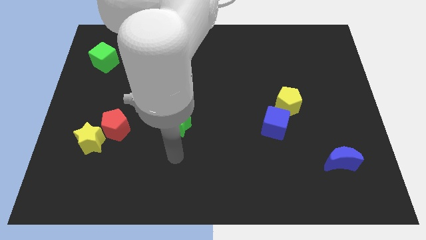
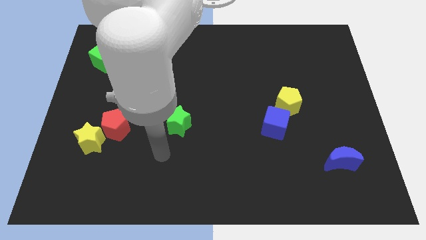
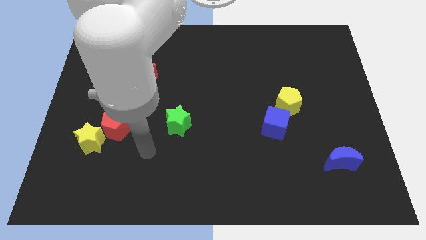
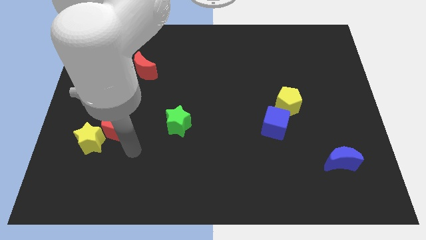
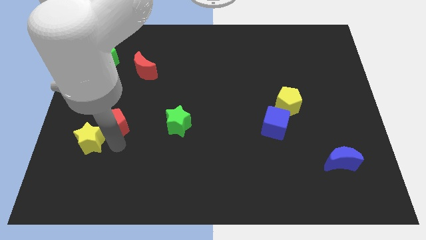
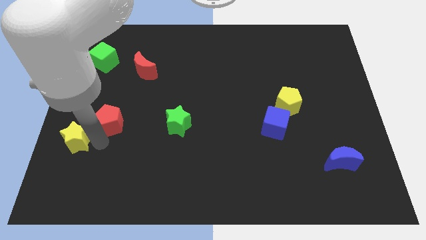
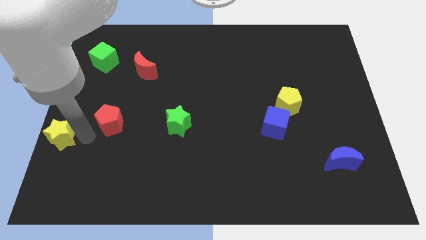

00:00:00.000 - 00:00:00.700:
move the red pentagon away from the yellow star

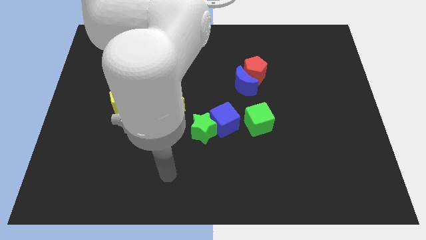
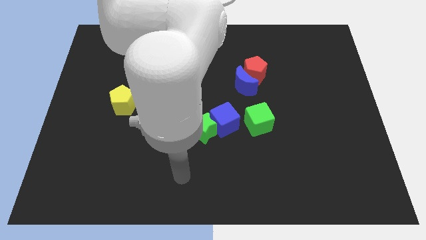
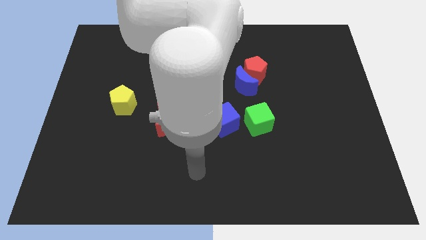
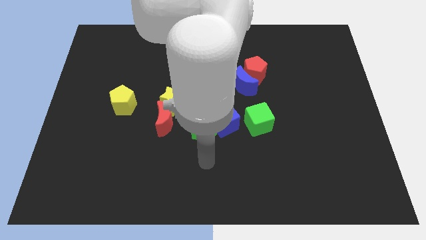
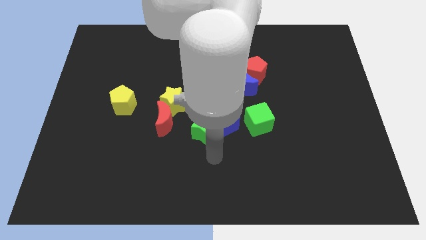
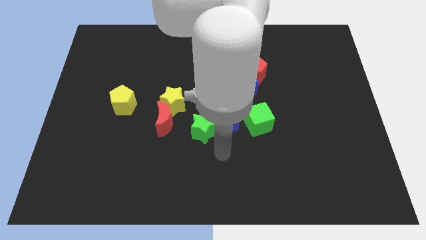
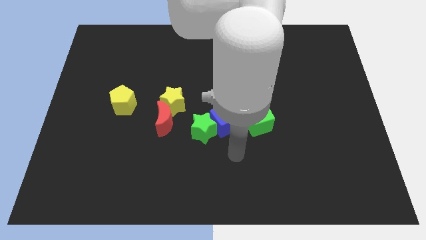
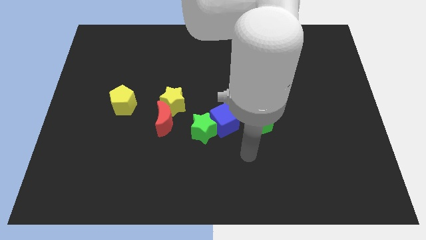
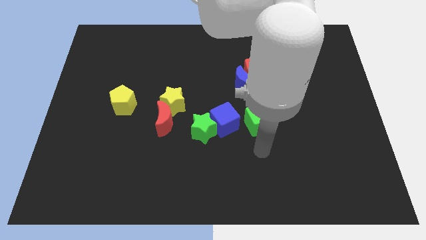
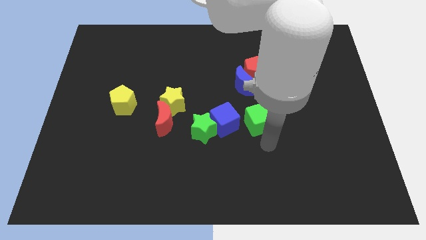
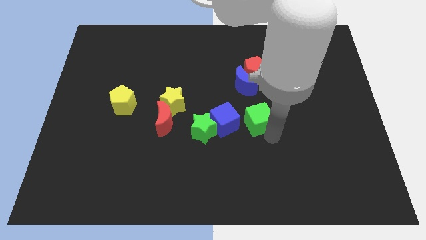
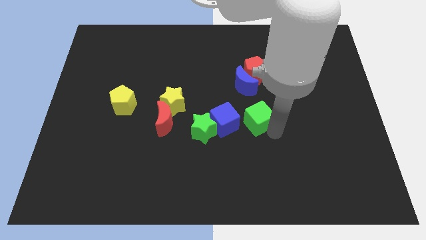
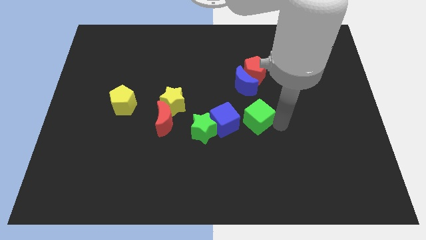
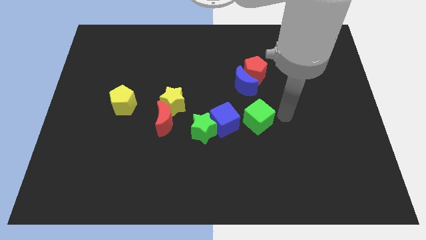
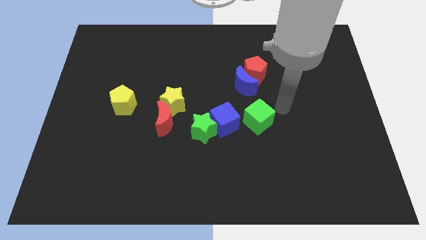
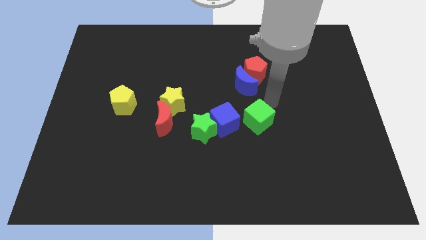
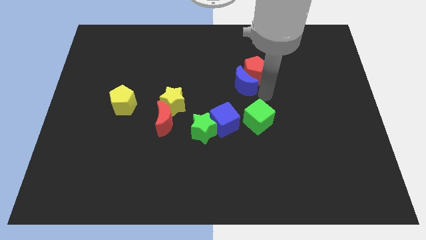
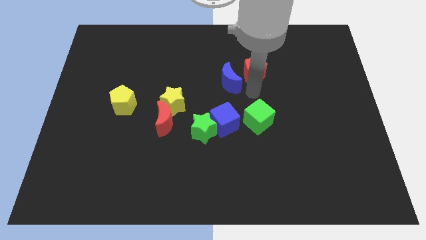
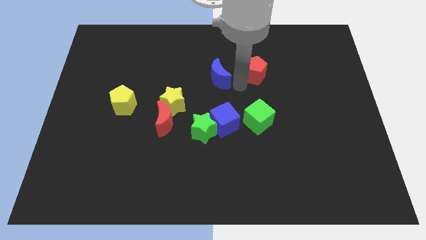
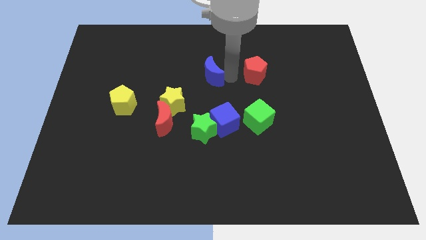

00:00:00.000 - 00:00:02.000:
separate the red pentagon from the blue moon

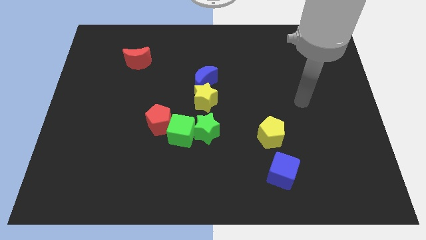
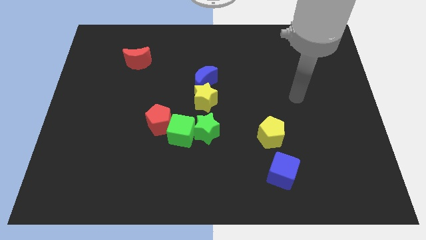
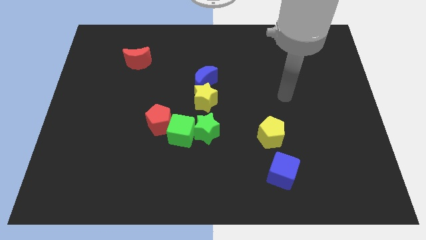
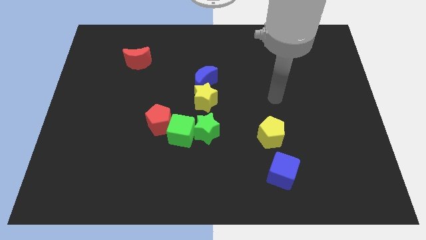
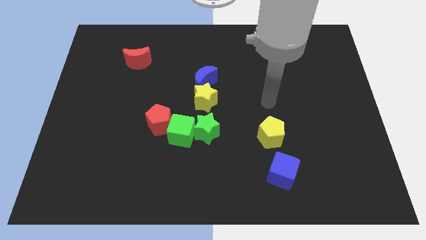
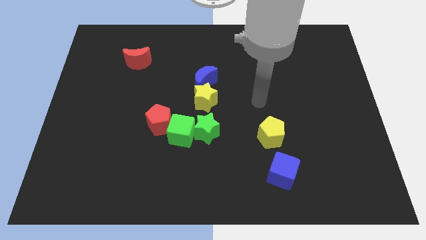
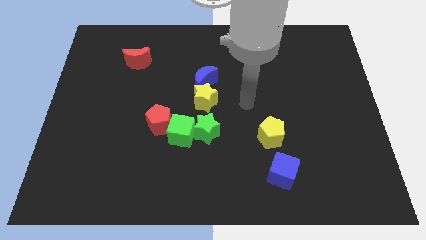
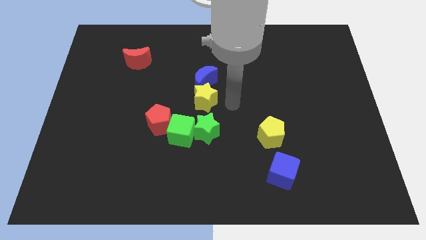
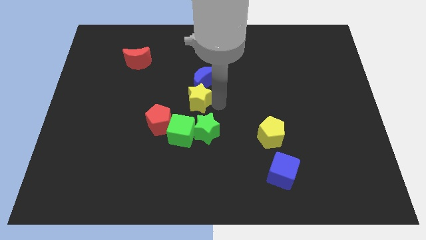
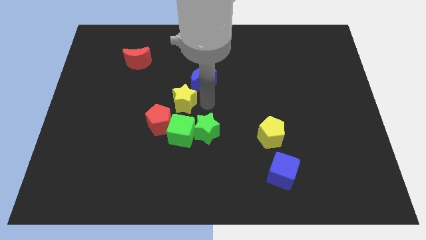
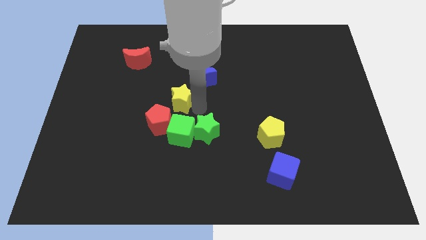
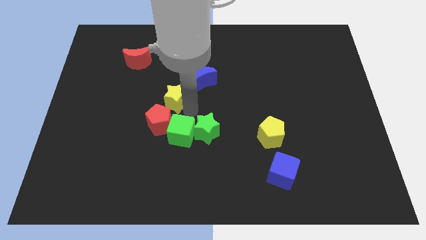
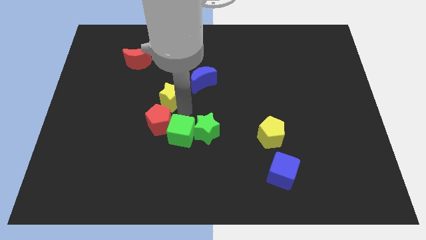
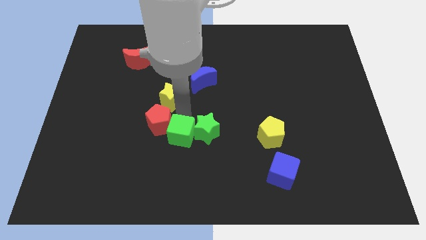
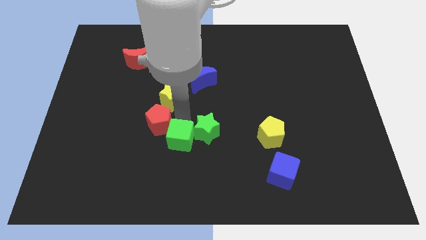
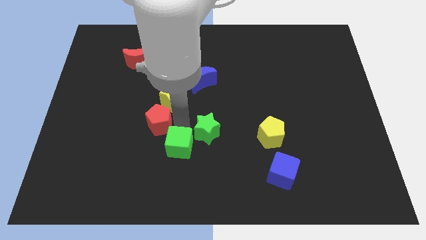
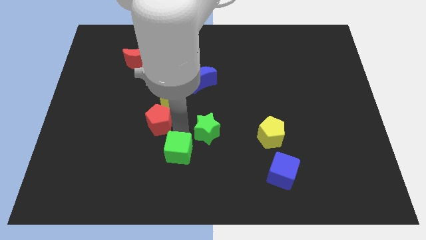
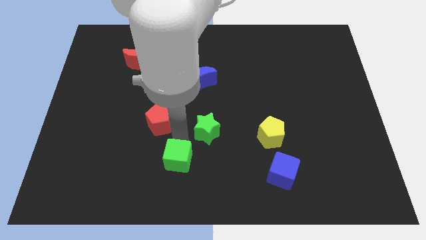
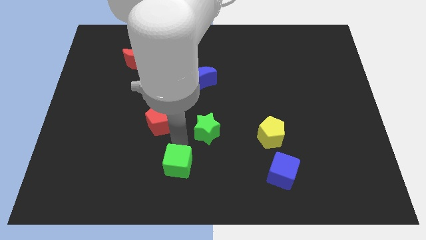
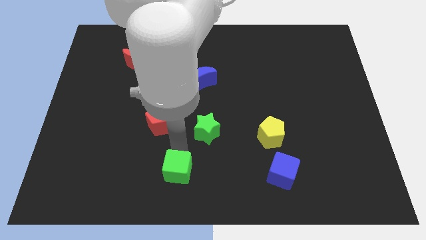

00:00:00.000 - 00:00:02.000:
pull the green cube apart from the green star and red pentagon

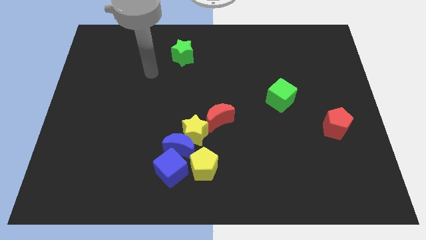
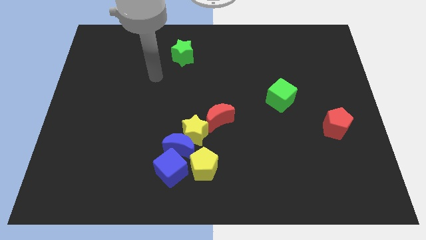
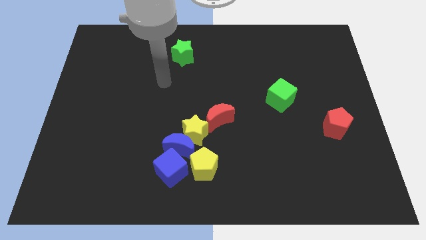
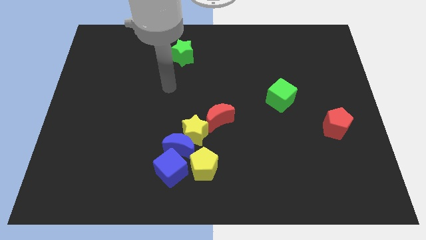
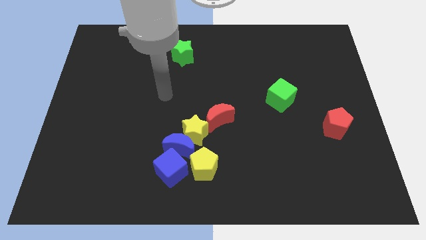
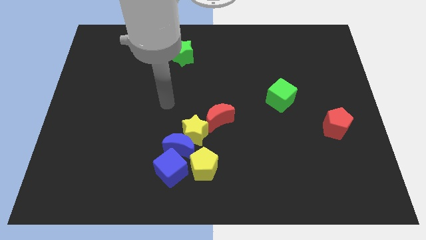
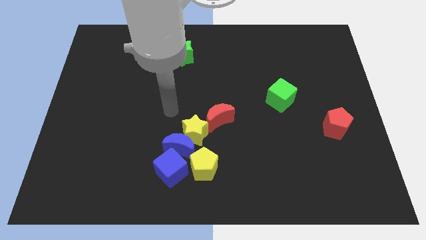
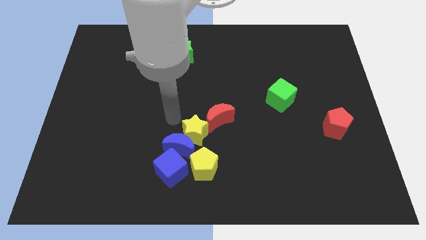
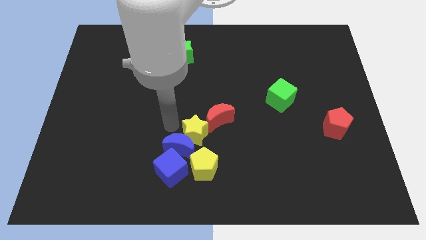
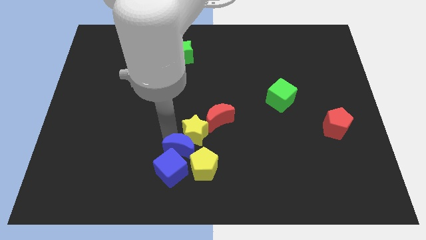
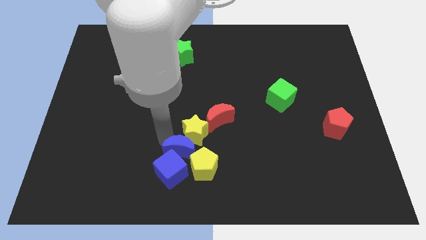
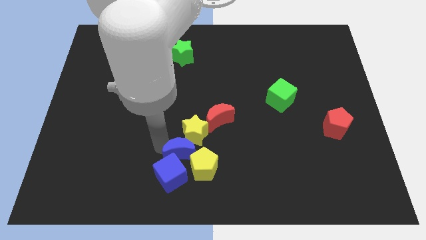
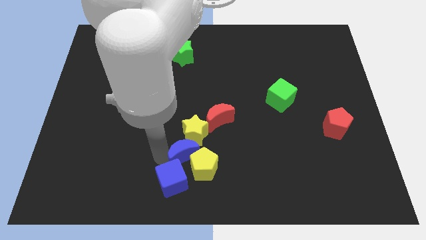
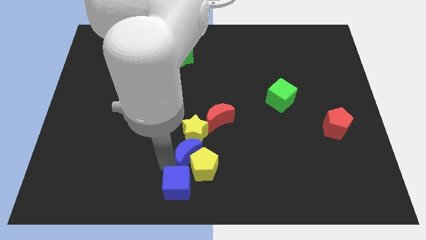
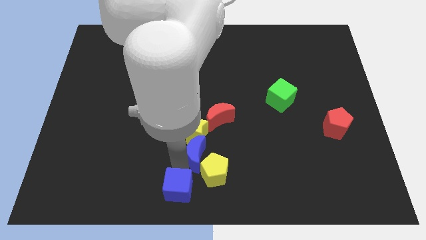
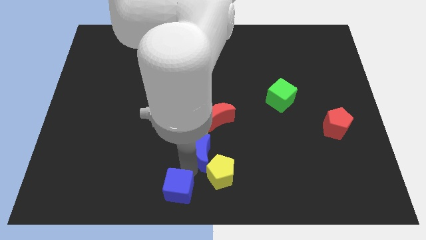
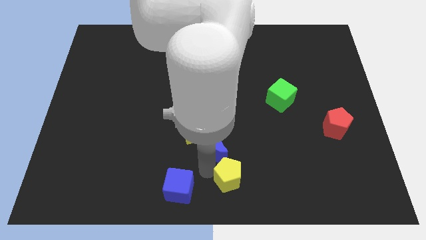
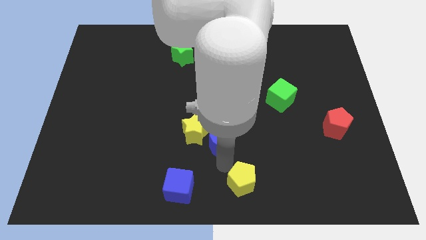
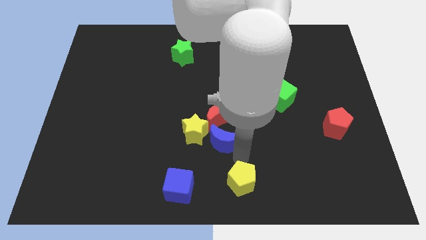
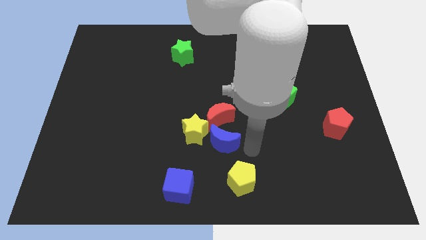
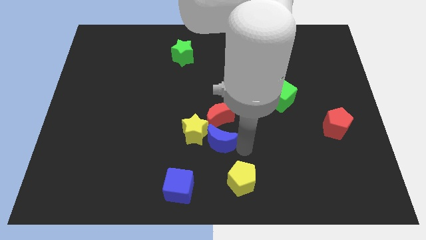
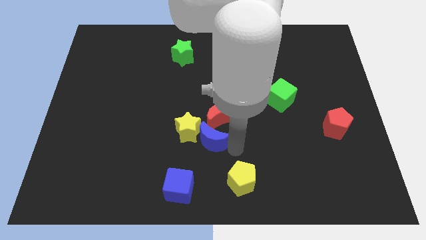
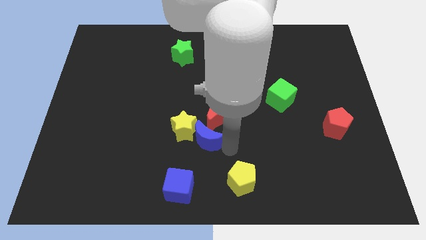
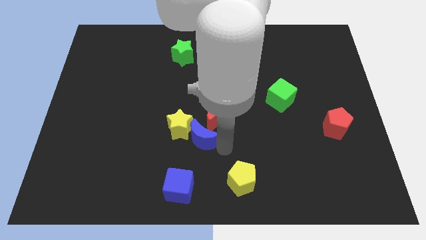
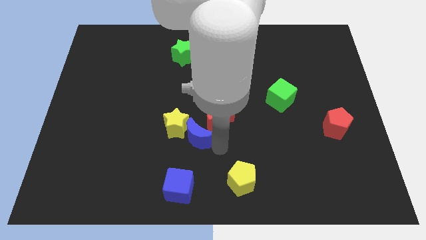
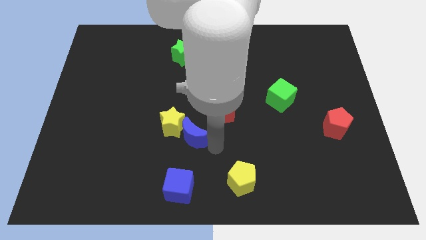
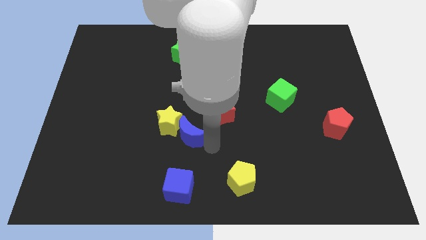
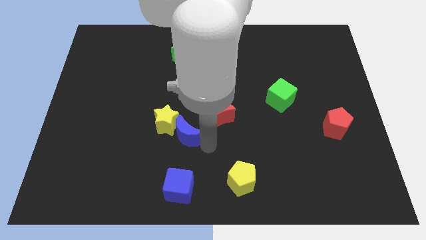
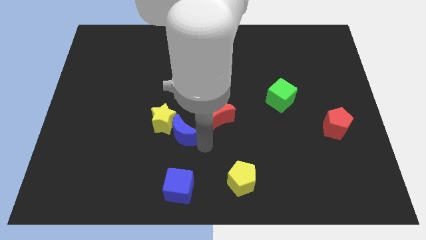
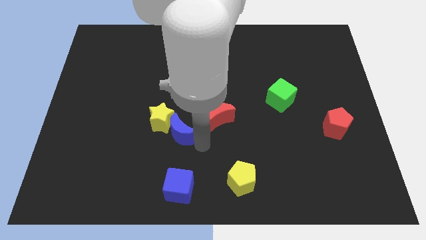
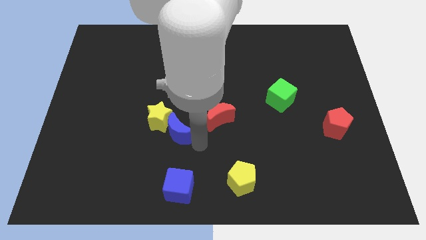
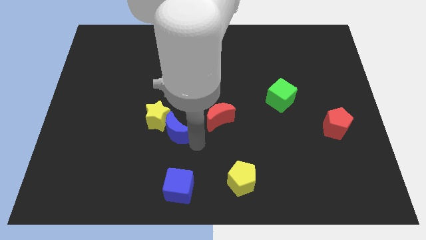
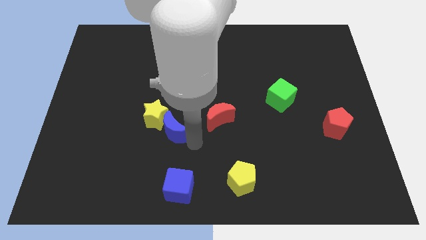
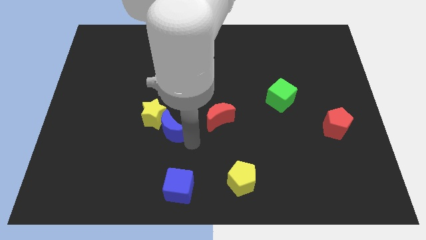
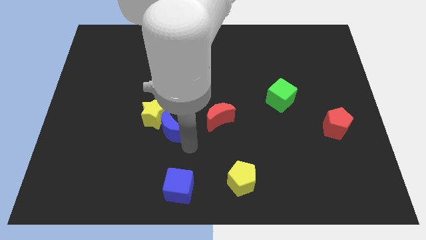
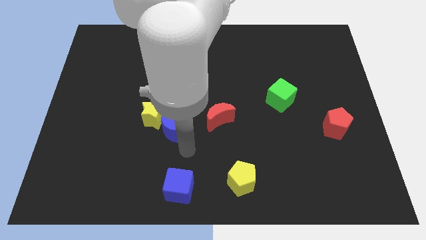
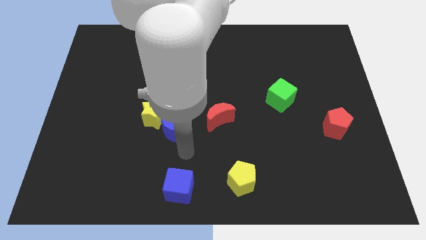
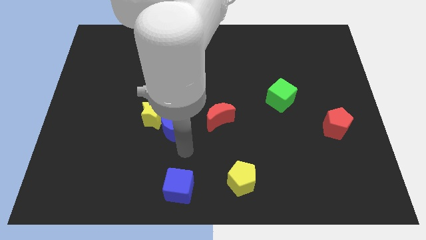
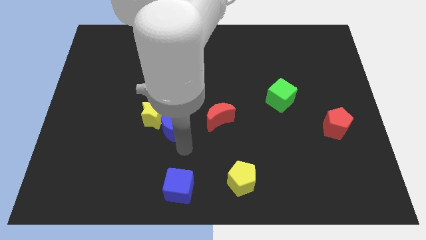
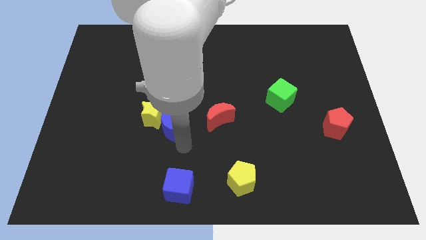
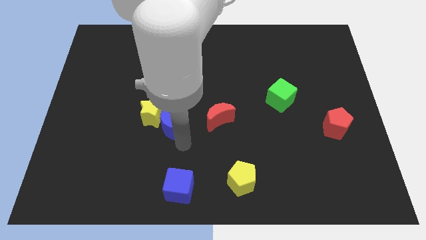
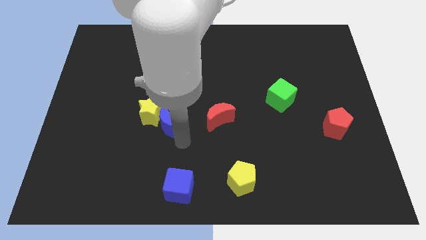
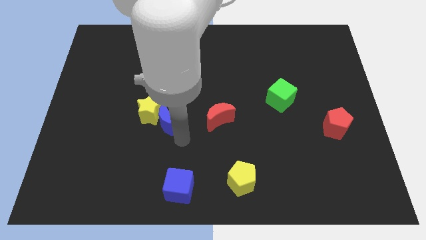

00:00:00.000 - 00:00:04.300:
separate the blue moon from the group

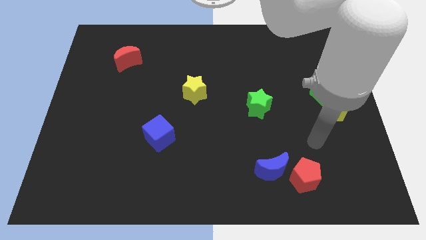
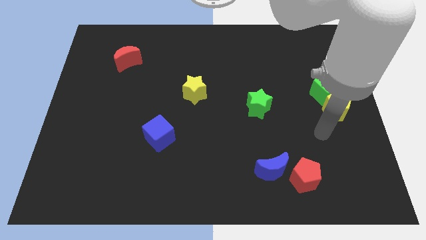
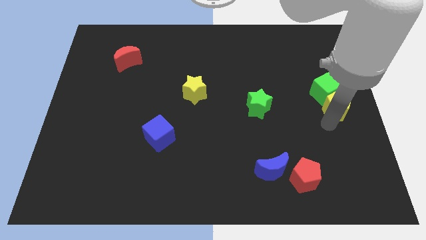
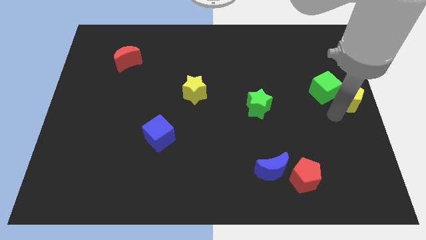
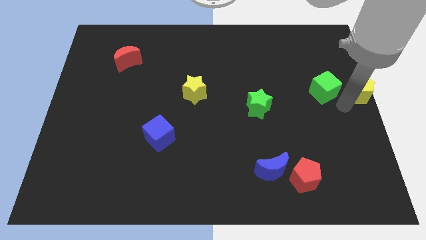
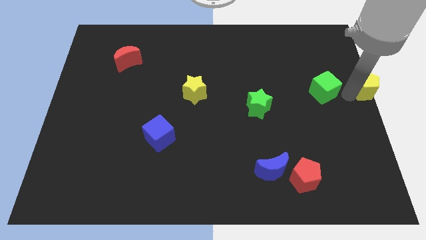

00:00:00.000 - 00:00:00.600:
pull the green cube apart from the yellow pentagon
